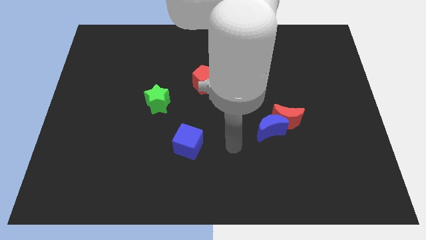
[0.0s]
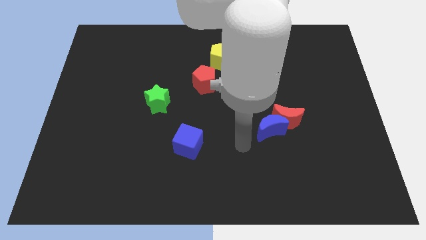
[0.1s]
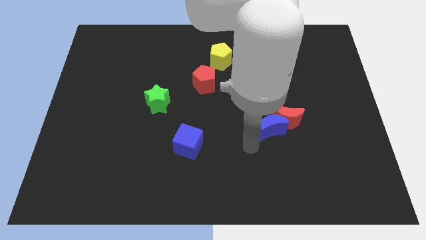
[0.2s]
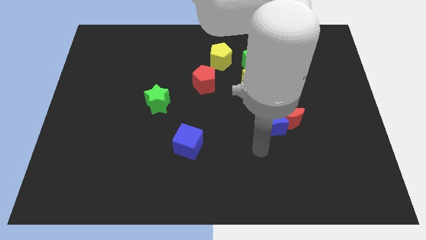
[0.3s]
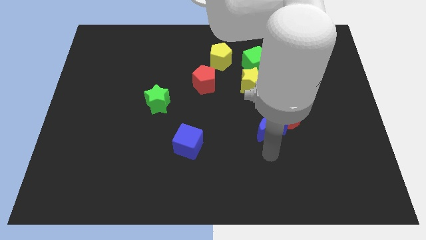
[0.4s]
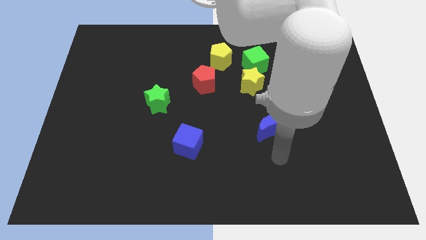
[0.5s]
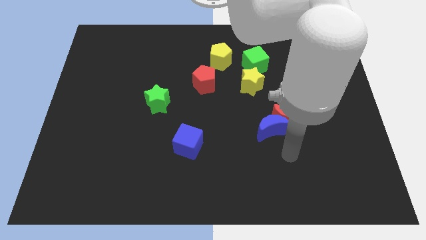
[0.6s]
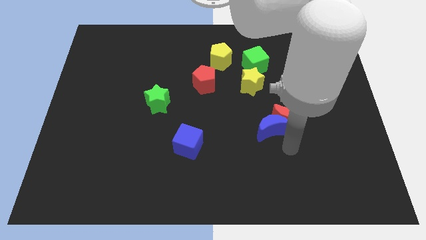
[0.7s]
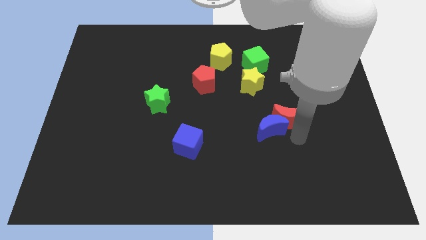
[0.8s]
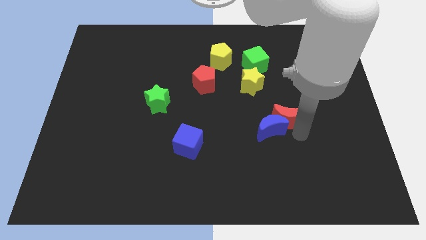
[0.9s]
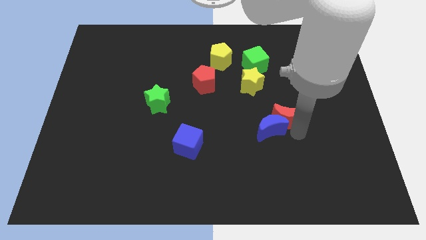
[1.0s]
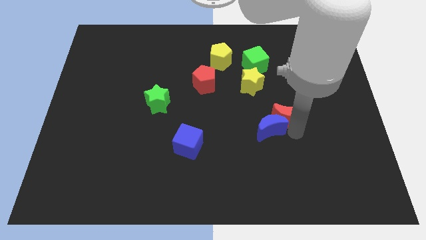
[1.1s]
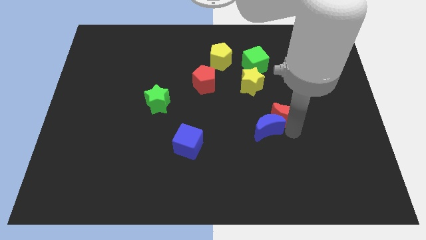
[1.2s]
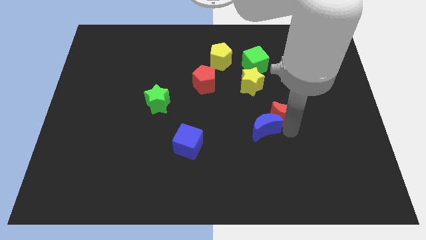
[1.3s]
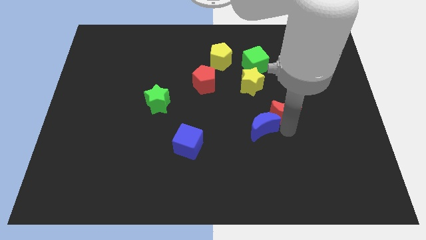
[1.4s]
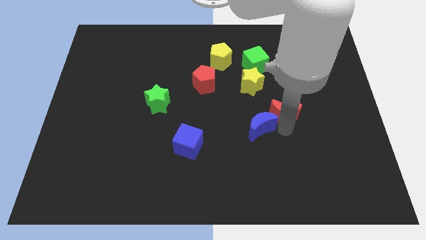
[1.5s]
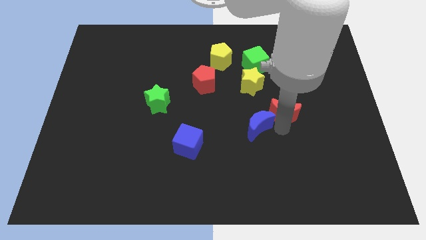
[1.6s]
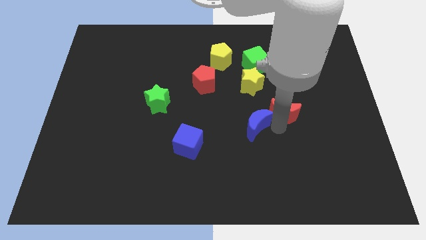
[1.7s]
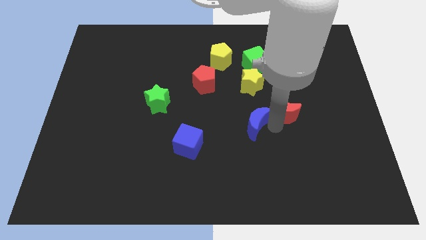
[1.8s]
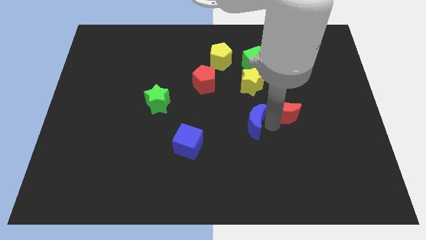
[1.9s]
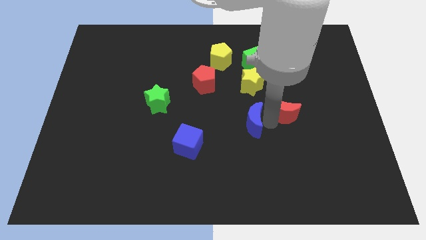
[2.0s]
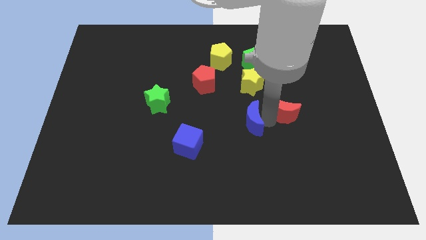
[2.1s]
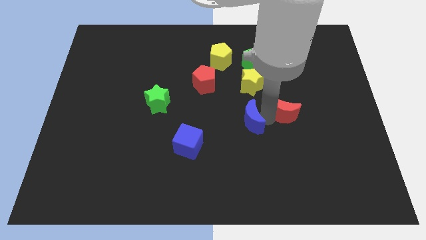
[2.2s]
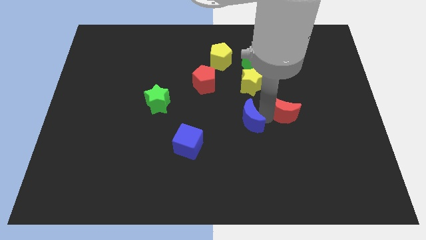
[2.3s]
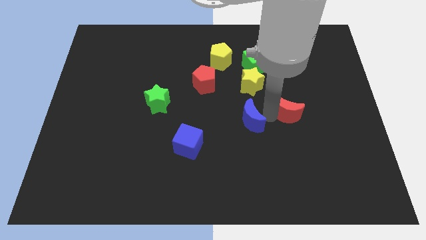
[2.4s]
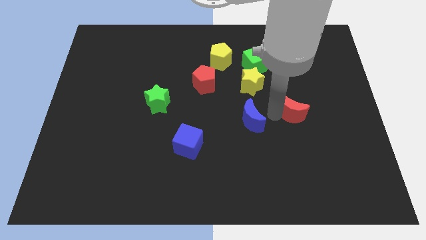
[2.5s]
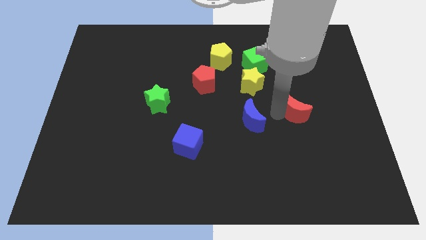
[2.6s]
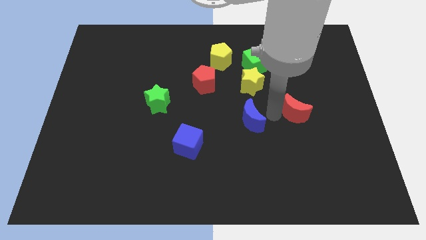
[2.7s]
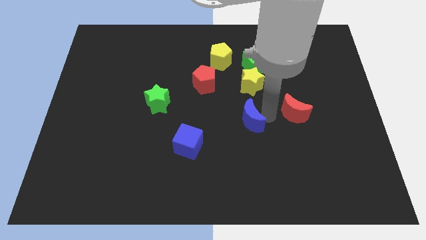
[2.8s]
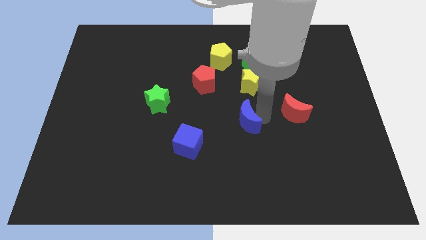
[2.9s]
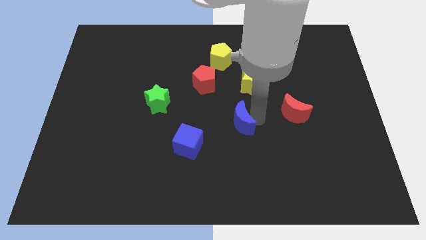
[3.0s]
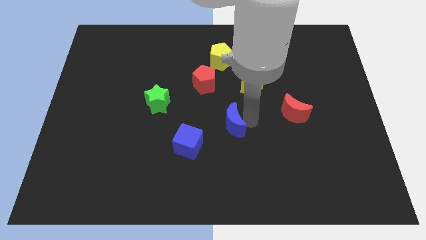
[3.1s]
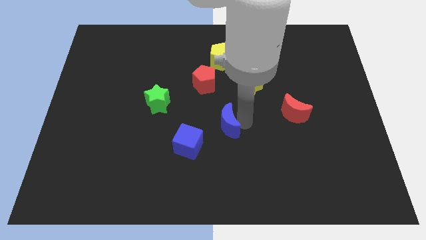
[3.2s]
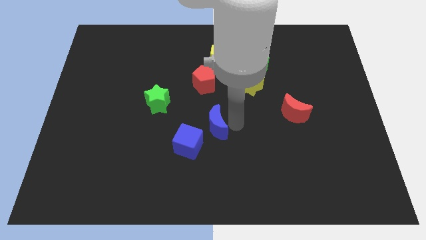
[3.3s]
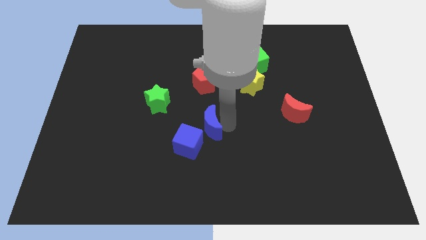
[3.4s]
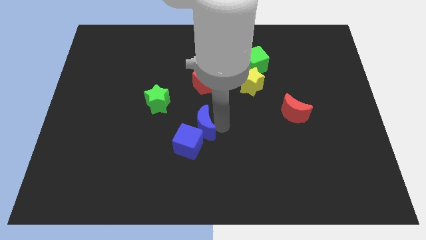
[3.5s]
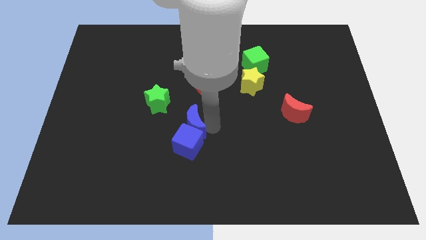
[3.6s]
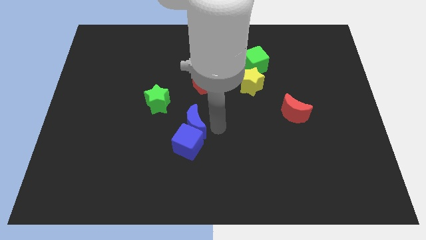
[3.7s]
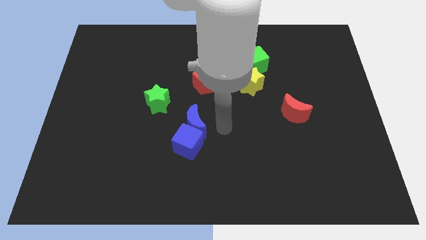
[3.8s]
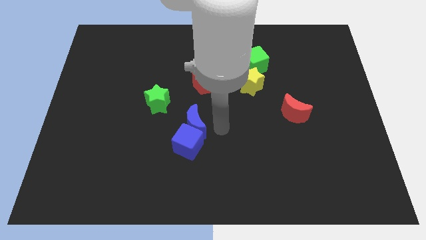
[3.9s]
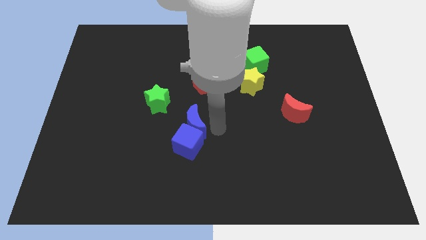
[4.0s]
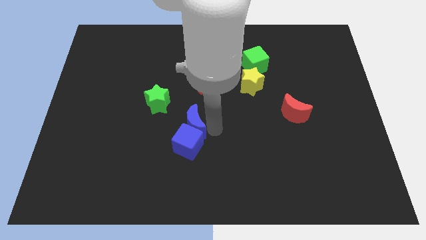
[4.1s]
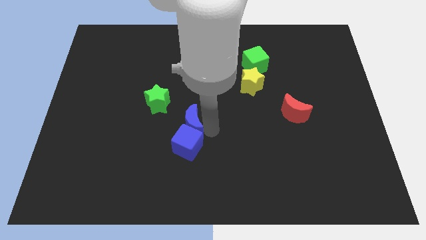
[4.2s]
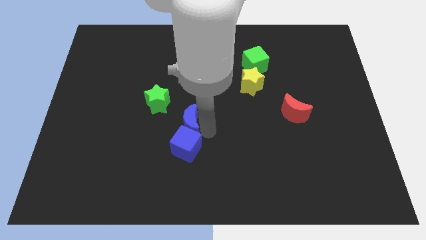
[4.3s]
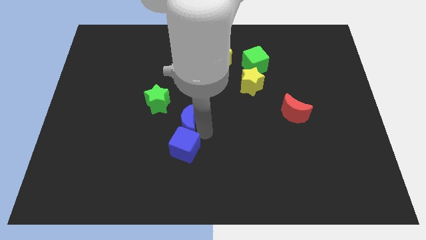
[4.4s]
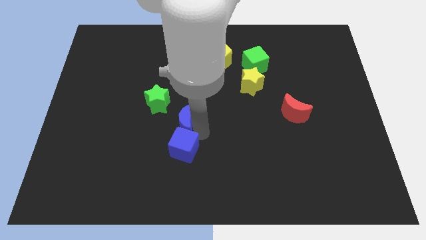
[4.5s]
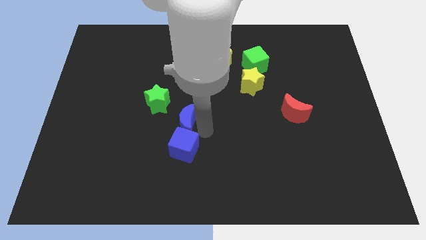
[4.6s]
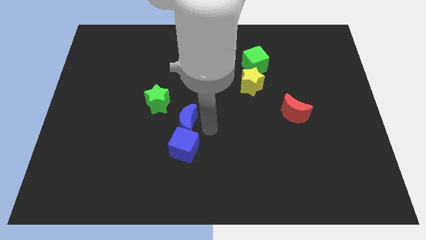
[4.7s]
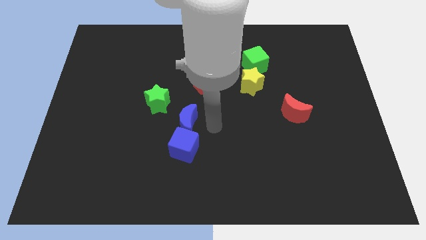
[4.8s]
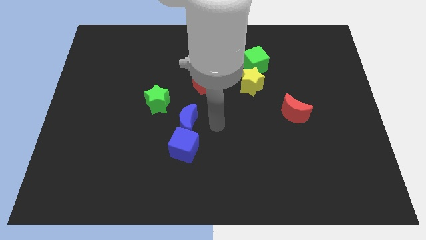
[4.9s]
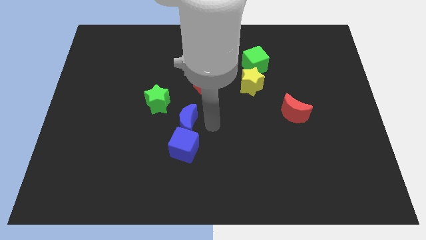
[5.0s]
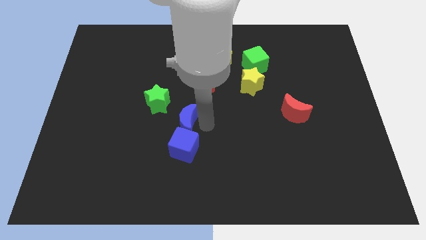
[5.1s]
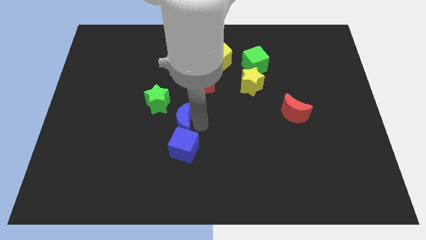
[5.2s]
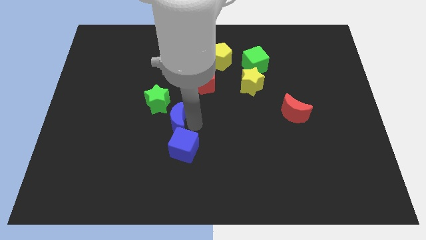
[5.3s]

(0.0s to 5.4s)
move the blue moon left

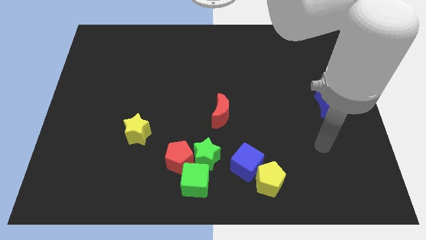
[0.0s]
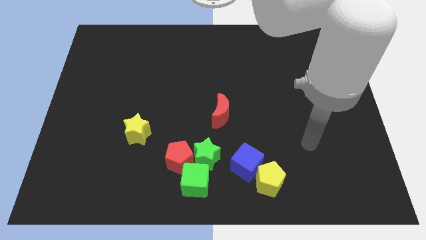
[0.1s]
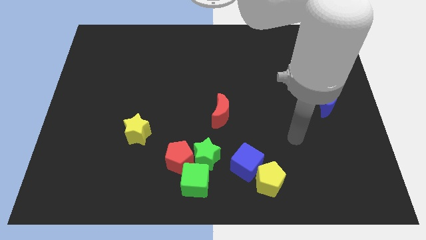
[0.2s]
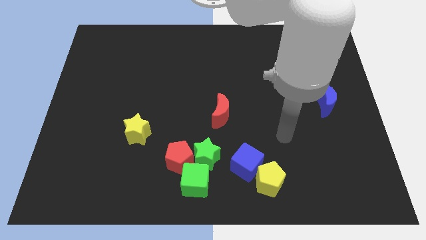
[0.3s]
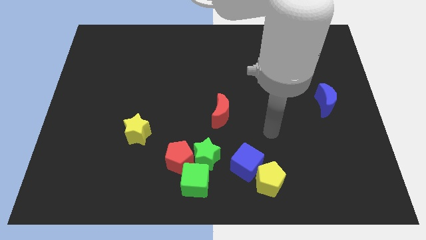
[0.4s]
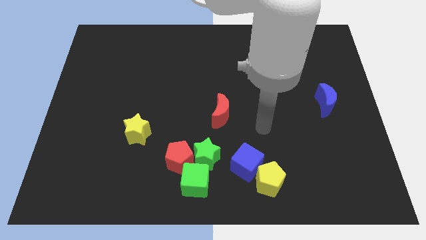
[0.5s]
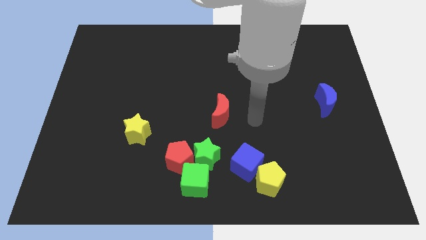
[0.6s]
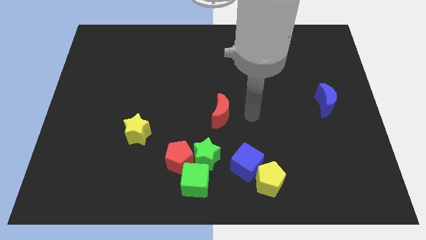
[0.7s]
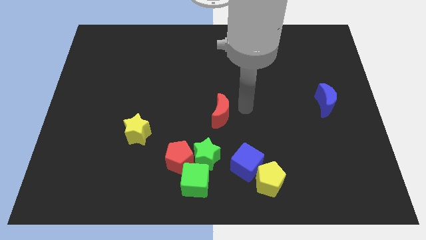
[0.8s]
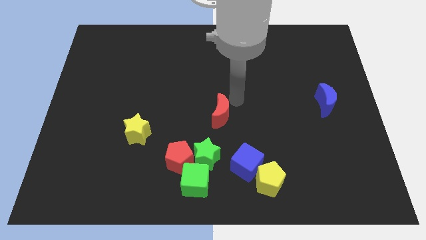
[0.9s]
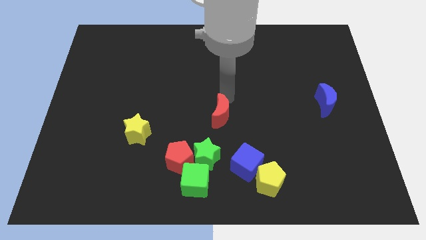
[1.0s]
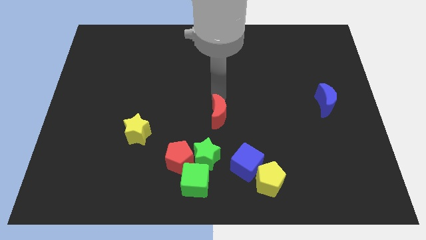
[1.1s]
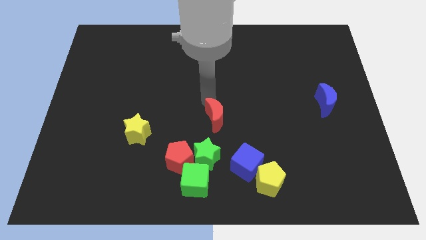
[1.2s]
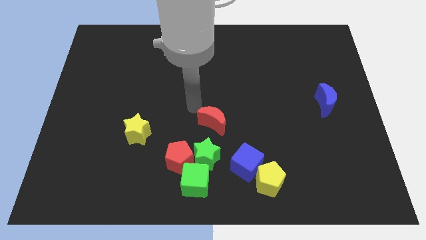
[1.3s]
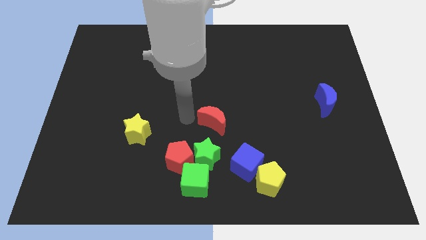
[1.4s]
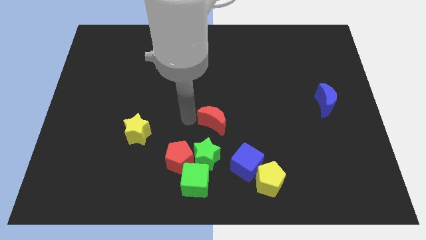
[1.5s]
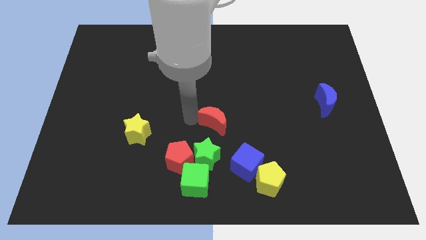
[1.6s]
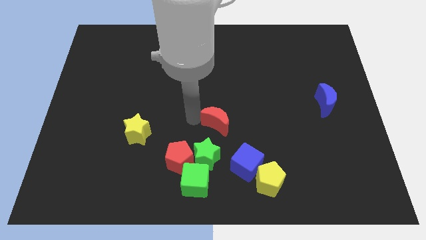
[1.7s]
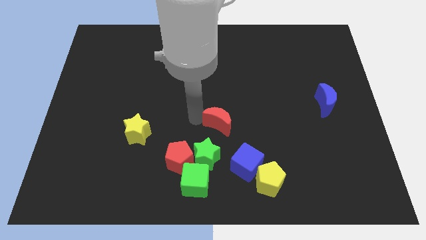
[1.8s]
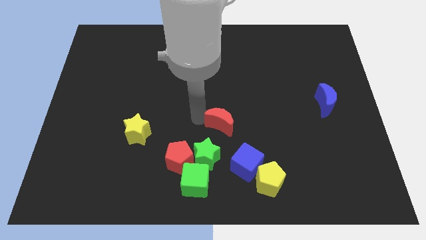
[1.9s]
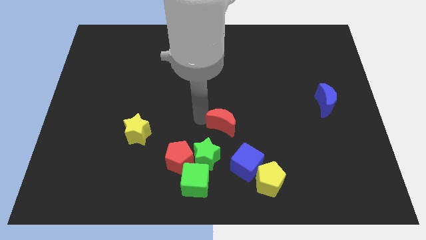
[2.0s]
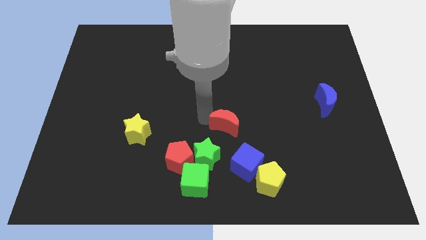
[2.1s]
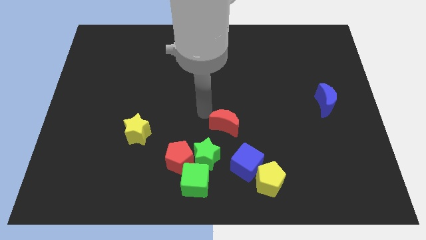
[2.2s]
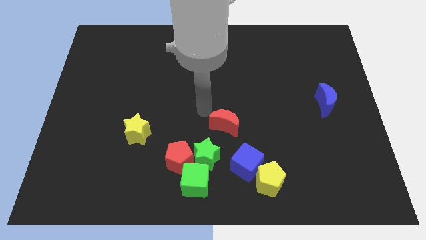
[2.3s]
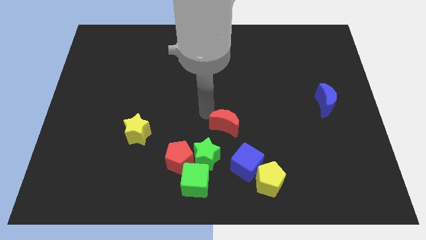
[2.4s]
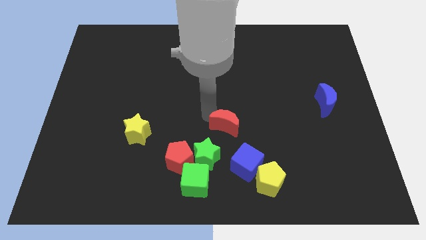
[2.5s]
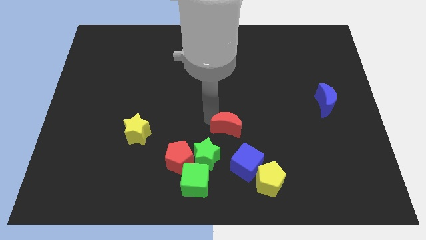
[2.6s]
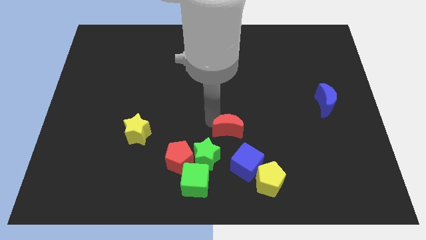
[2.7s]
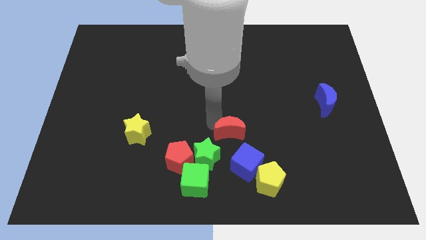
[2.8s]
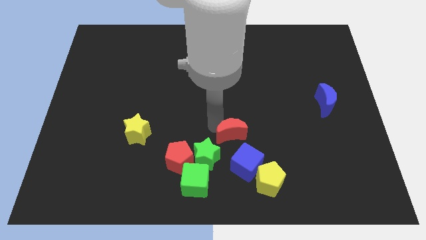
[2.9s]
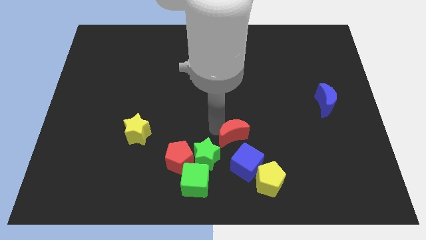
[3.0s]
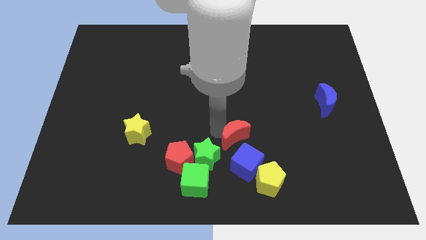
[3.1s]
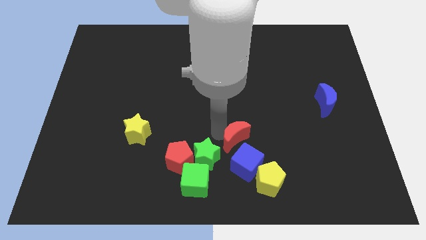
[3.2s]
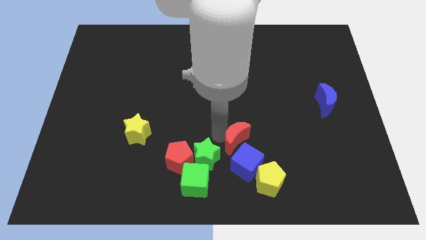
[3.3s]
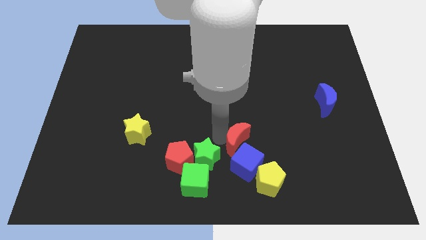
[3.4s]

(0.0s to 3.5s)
slightly push the red moon diagonally downwards and to the right

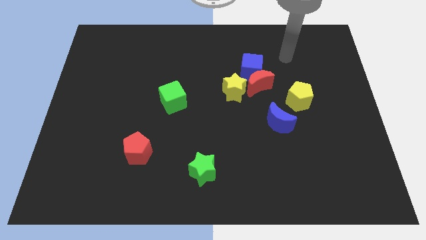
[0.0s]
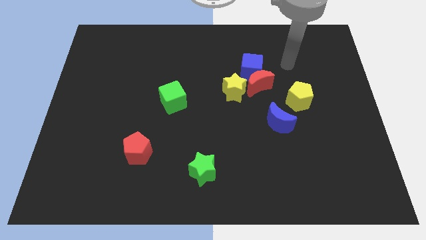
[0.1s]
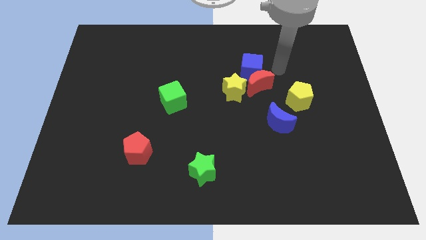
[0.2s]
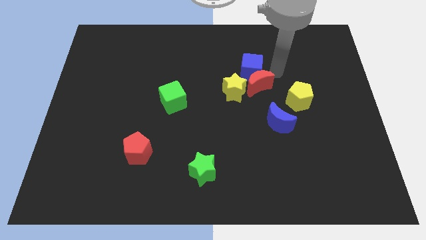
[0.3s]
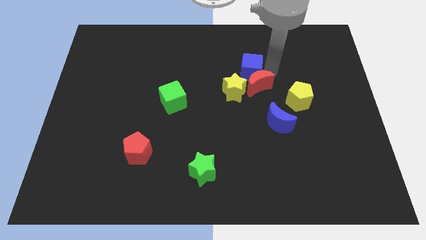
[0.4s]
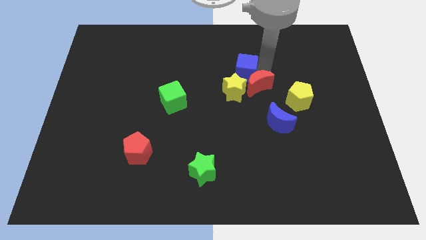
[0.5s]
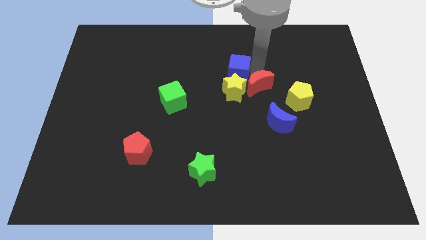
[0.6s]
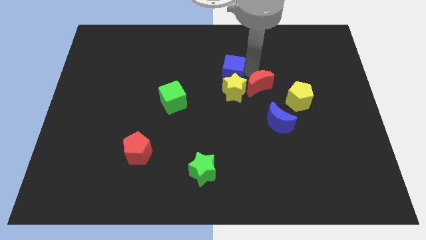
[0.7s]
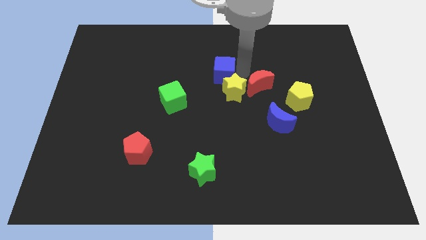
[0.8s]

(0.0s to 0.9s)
move the blue cube a bit left
